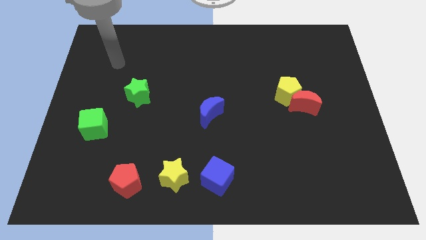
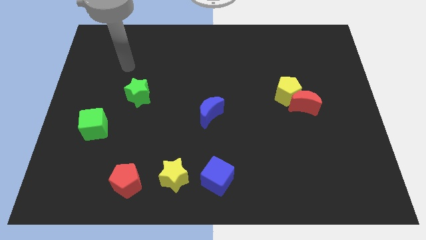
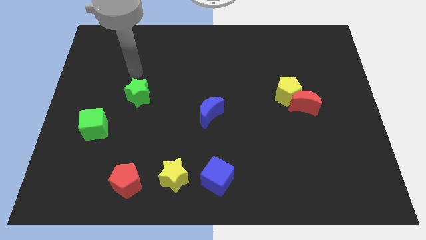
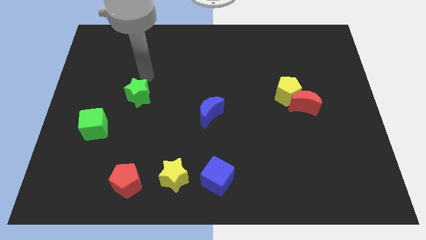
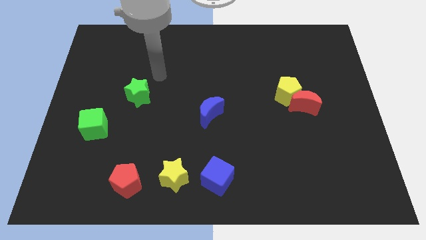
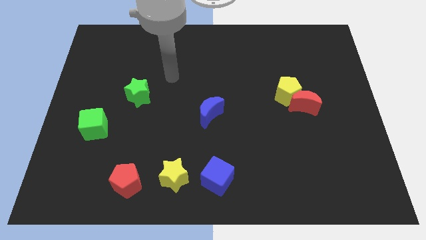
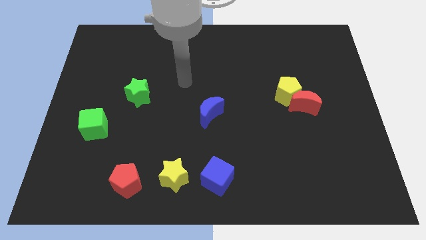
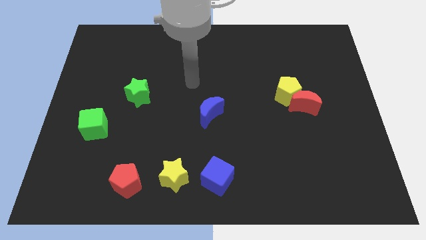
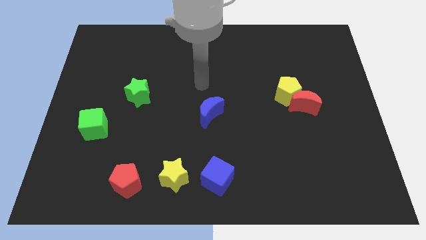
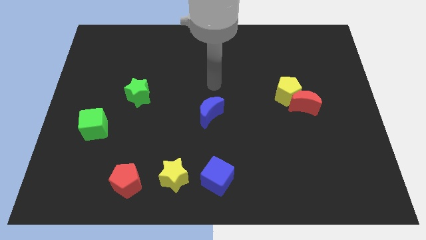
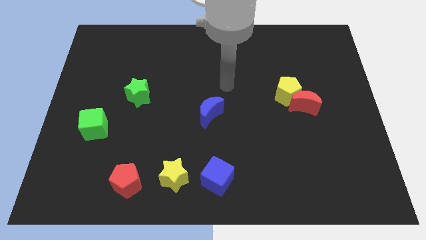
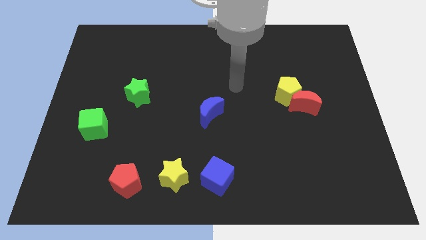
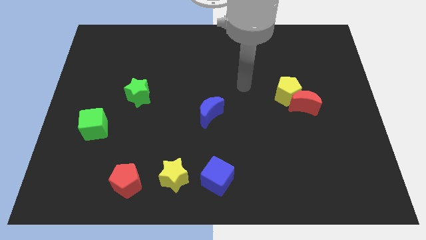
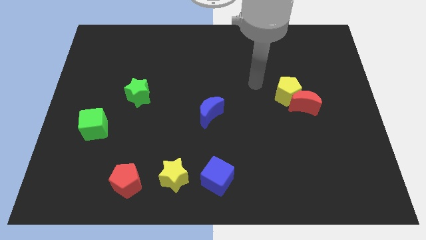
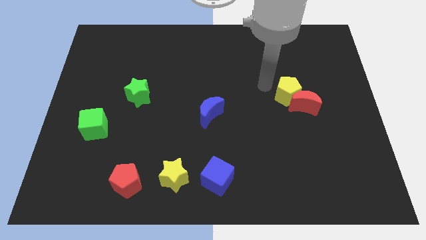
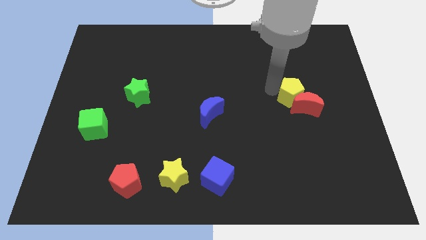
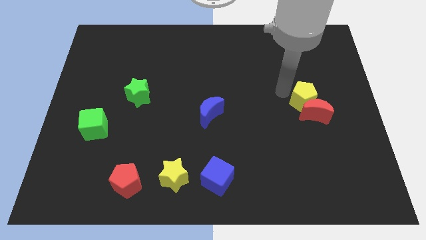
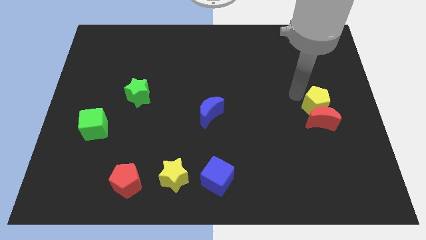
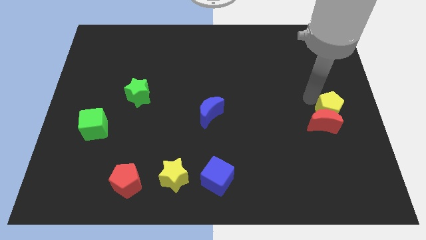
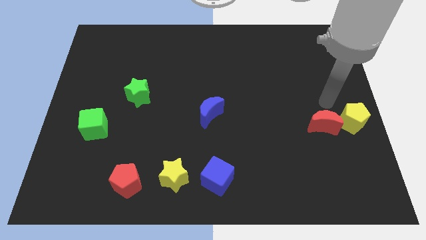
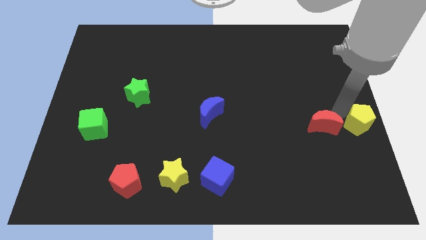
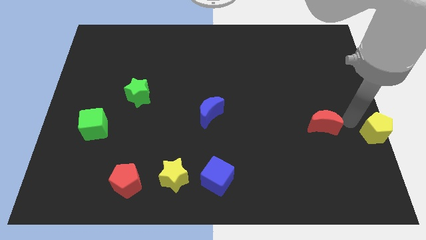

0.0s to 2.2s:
move the red moon away from the yellow pentagon

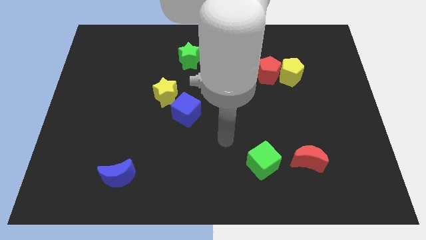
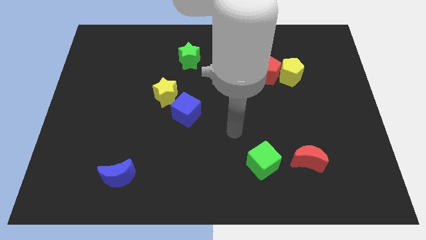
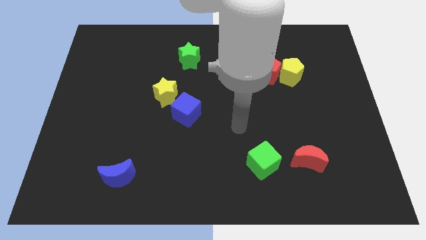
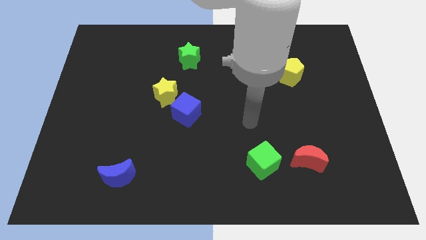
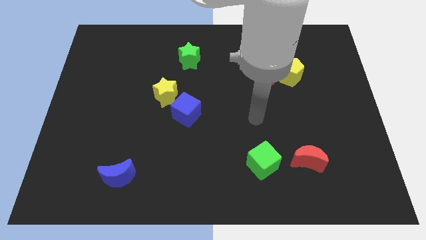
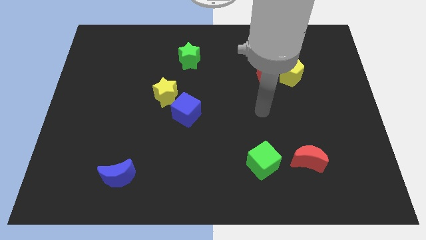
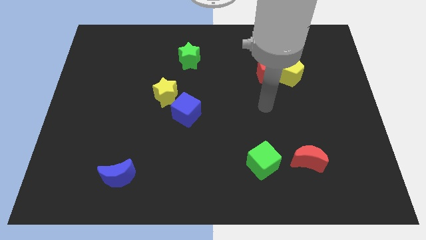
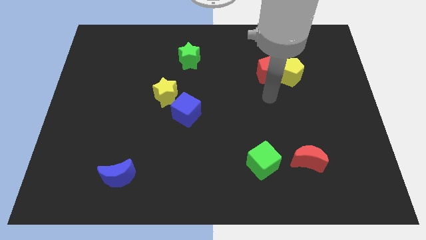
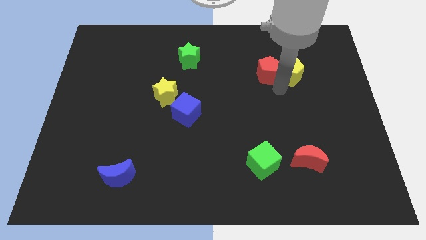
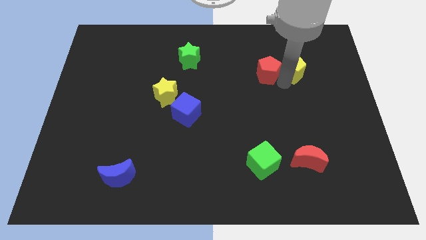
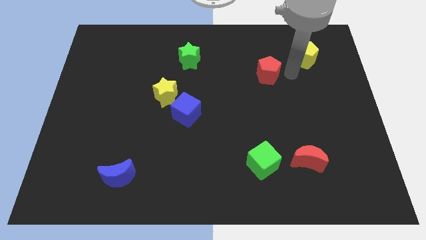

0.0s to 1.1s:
separate the red pentagon from the yellow pentagon

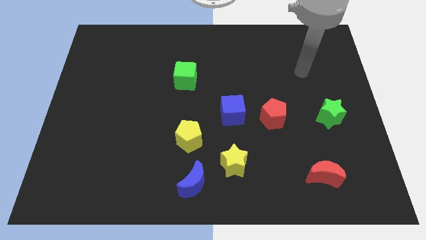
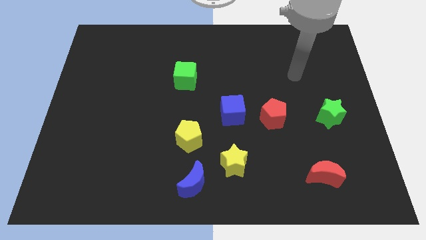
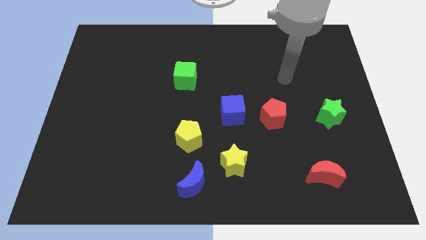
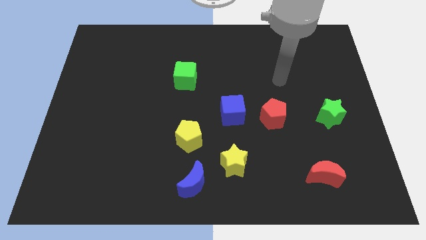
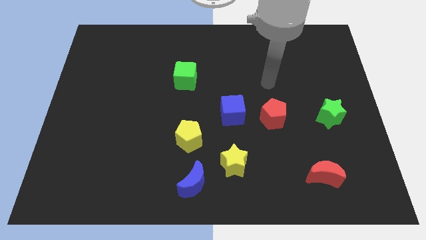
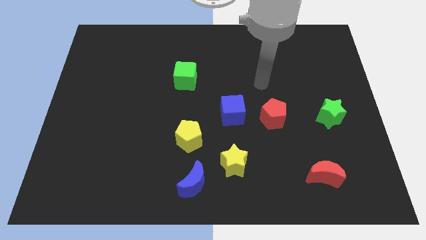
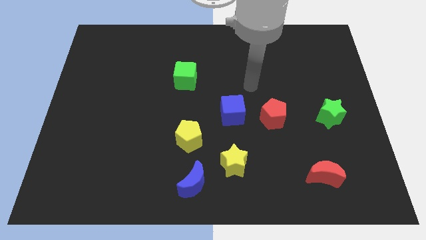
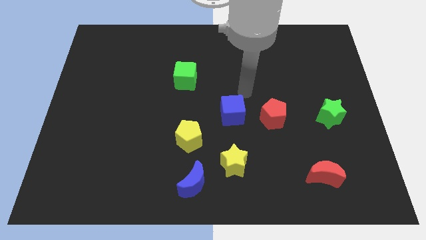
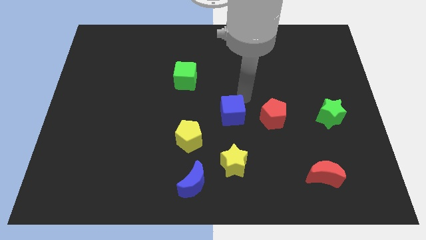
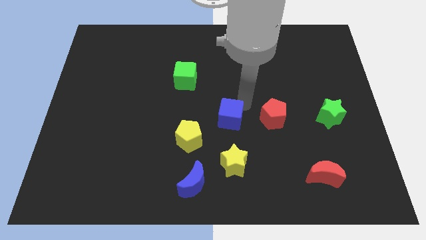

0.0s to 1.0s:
move the red pentagon away from the blue cube

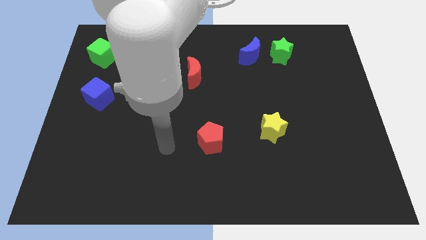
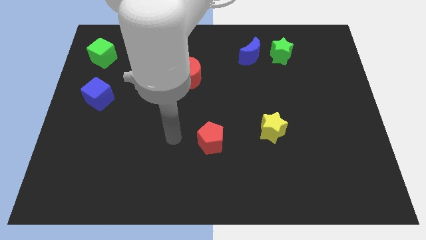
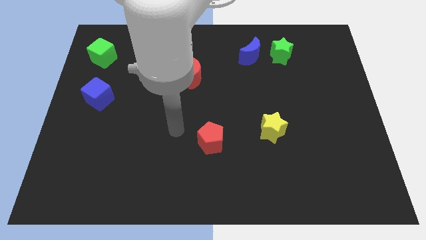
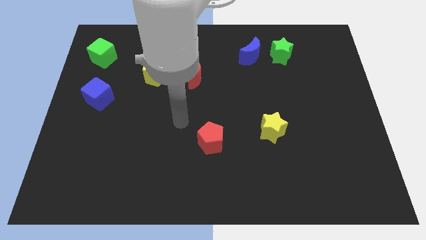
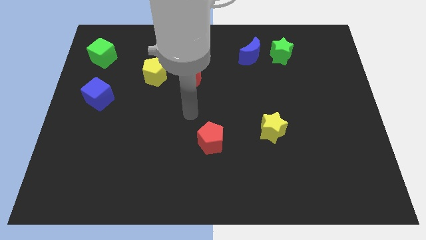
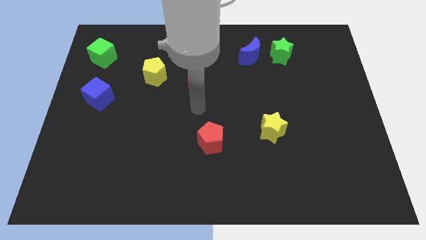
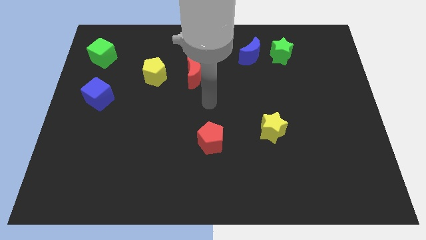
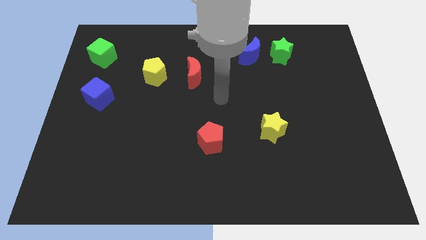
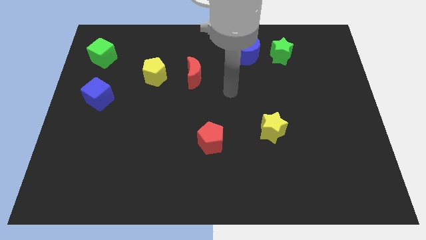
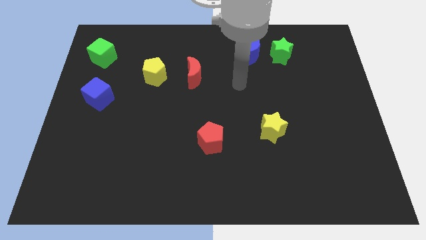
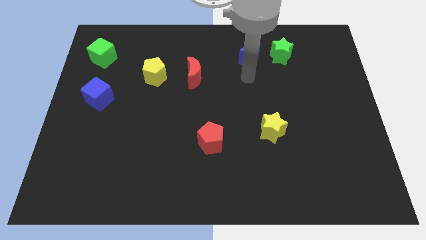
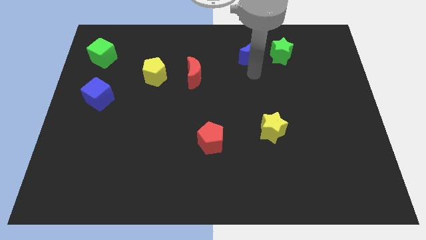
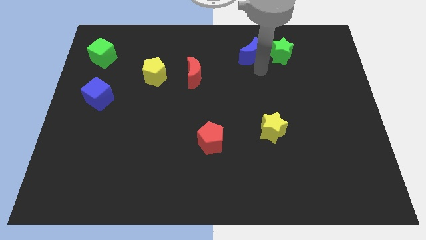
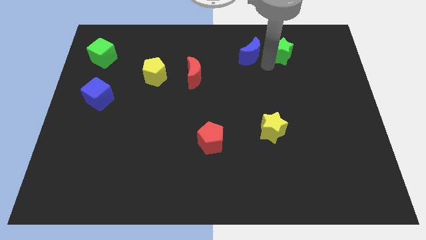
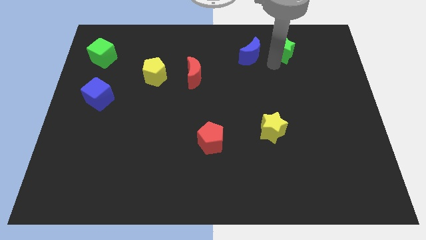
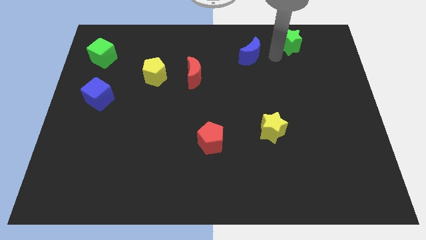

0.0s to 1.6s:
pull the blue moon apart from the green star

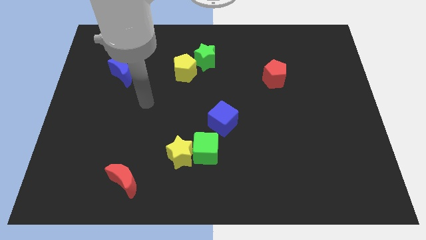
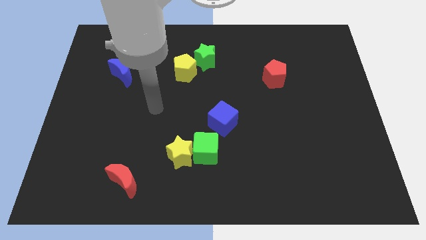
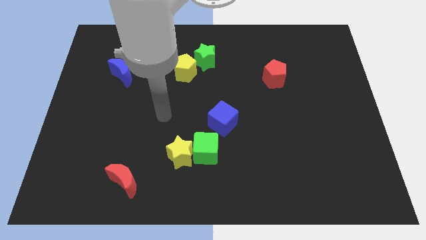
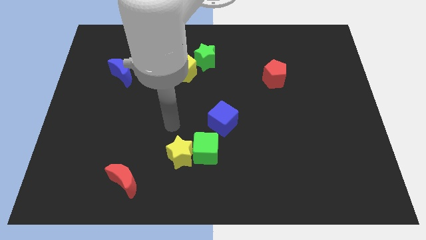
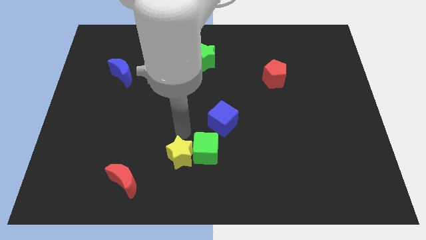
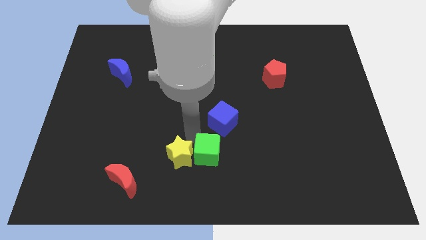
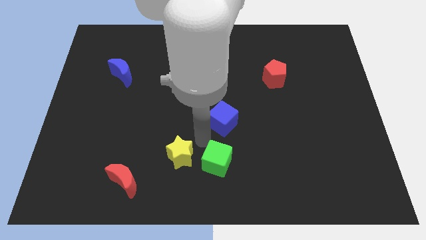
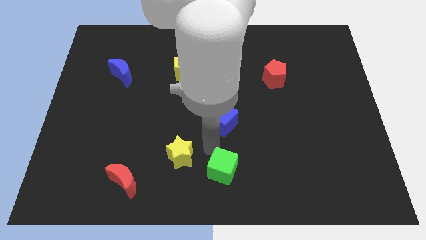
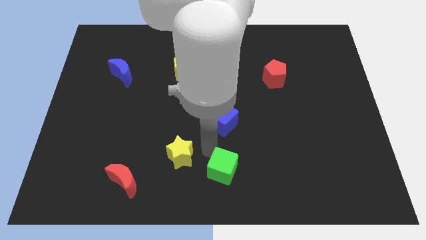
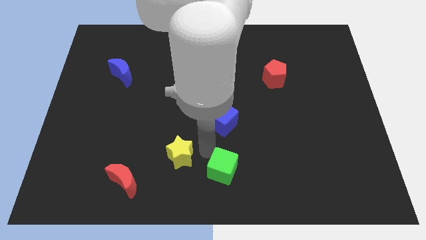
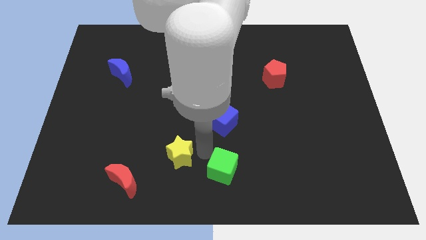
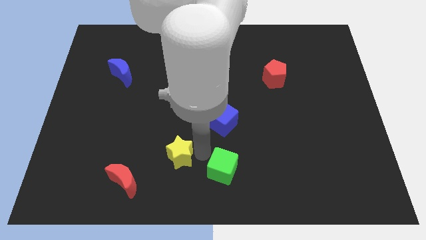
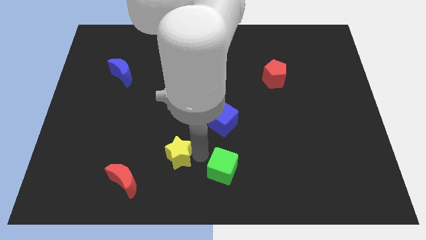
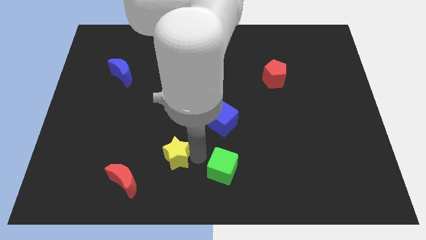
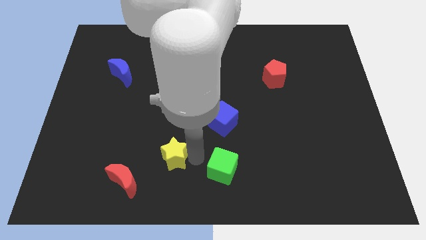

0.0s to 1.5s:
move the yellow star away from the green cube

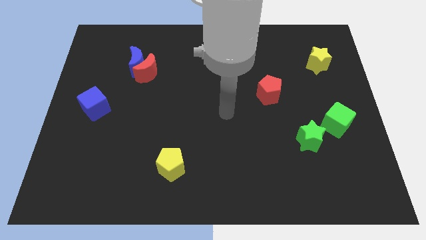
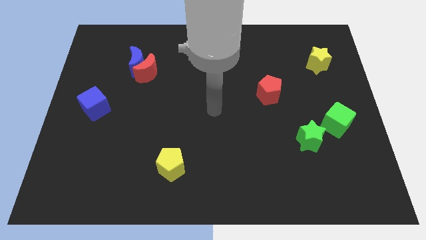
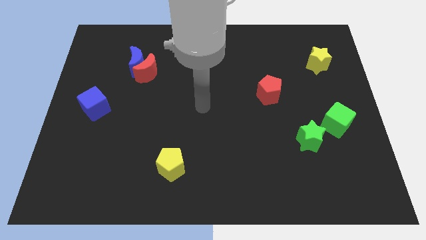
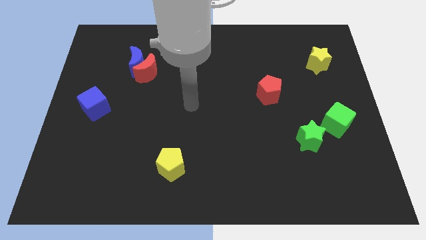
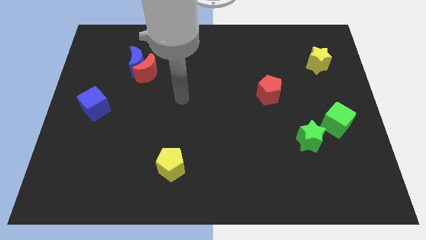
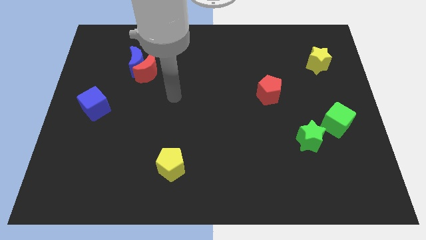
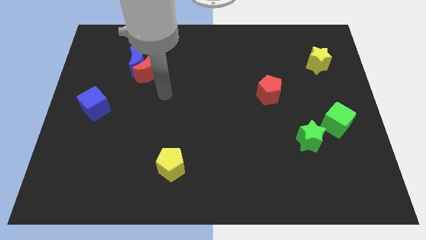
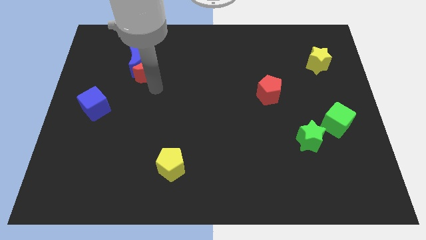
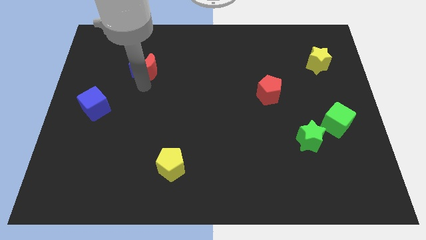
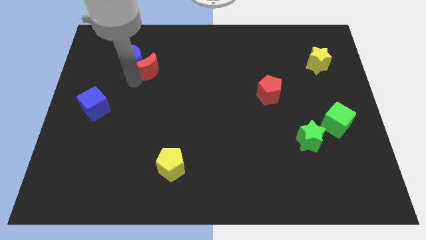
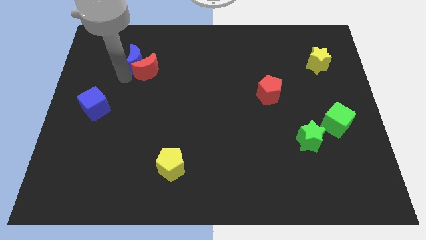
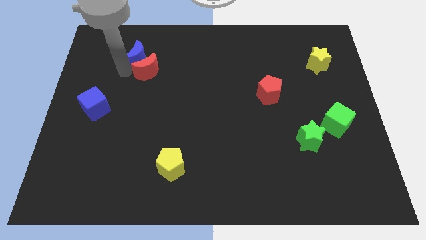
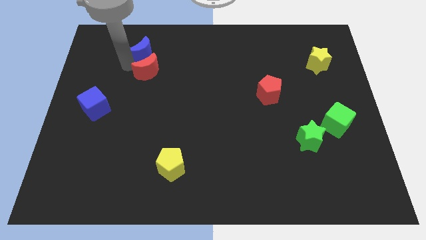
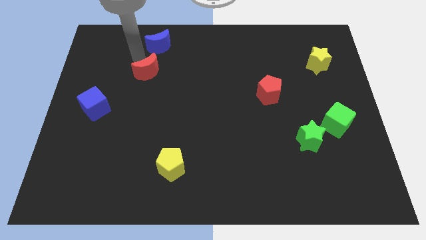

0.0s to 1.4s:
move the red moon away from the blue moon

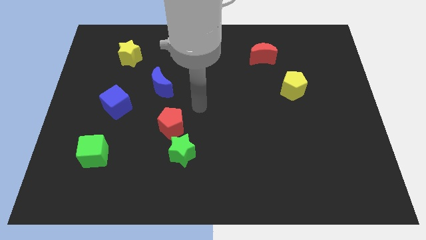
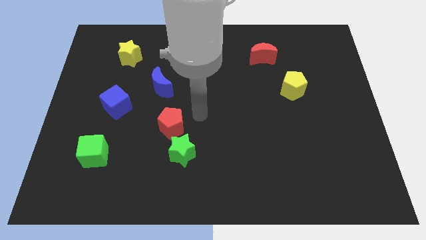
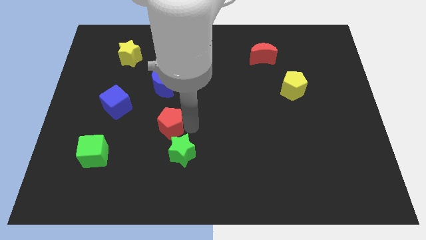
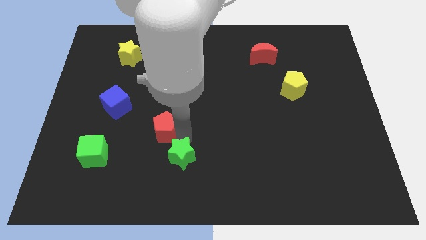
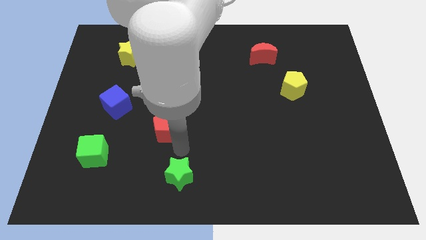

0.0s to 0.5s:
separate the red pentagon from the green star
